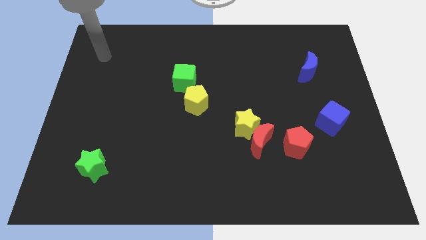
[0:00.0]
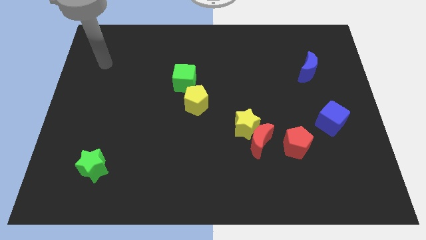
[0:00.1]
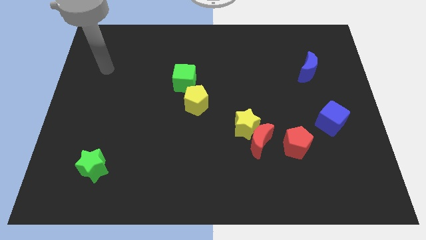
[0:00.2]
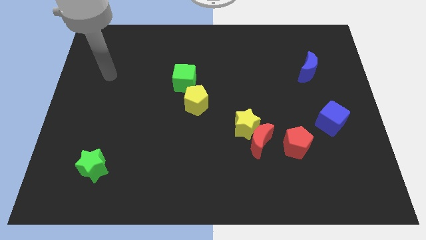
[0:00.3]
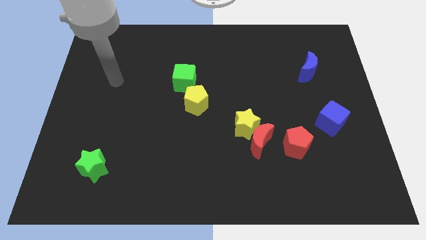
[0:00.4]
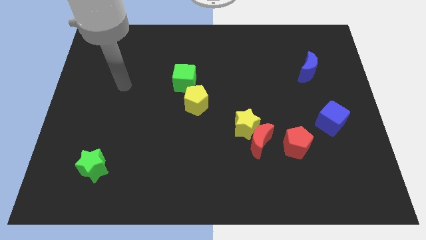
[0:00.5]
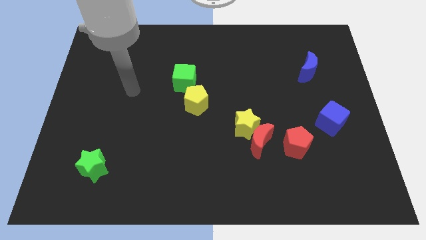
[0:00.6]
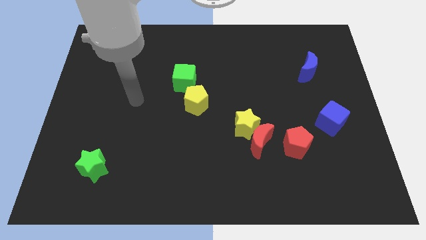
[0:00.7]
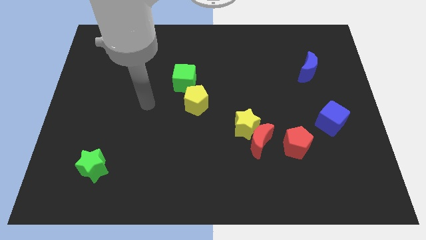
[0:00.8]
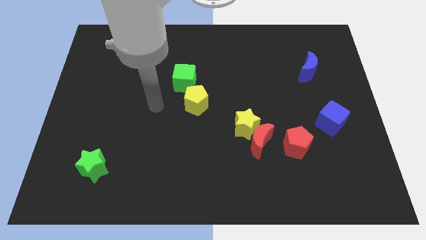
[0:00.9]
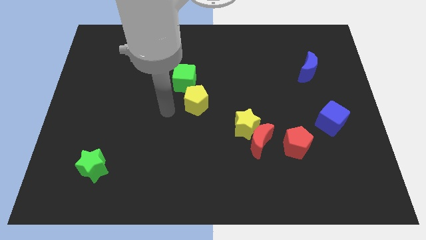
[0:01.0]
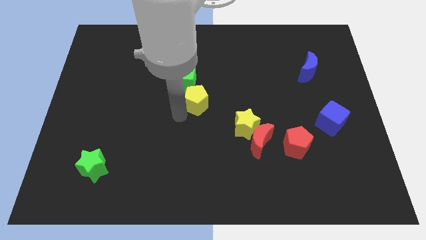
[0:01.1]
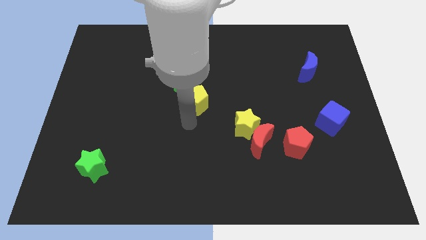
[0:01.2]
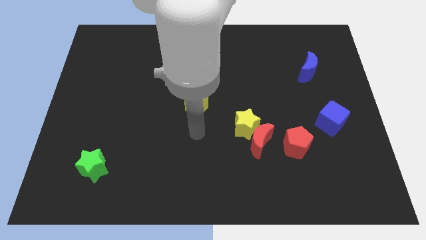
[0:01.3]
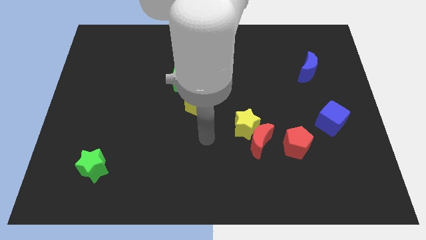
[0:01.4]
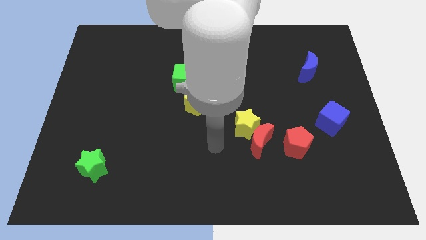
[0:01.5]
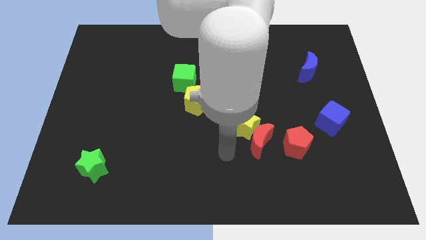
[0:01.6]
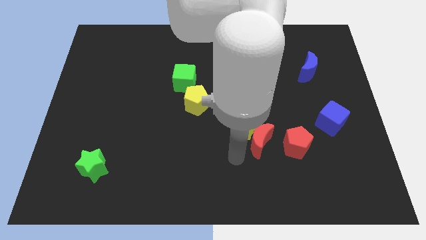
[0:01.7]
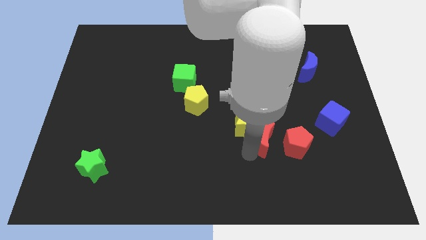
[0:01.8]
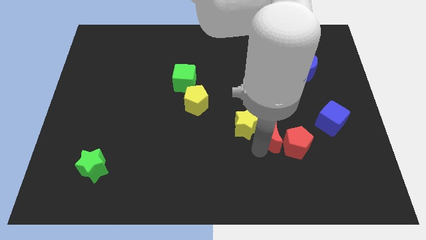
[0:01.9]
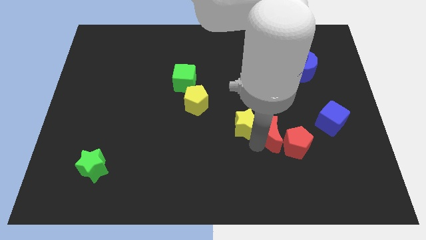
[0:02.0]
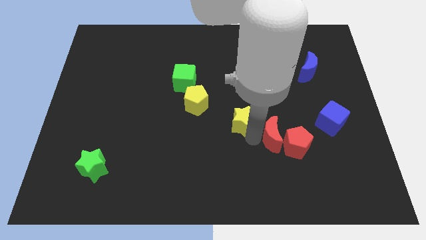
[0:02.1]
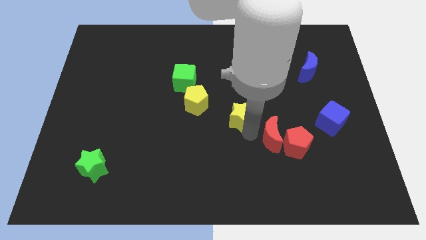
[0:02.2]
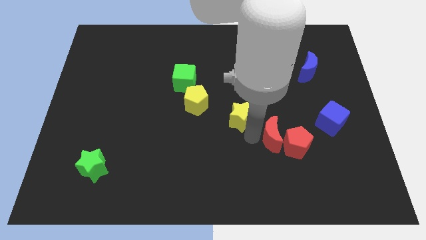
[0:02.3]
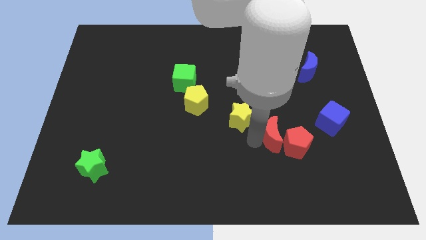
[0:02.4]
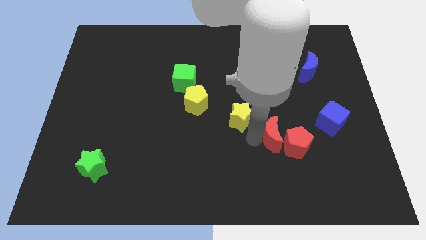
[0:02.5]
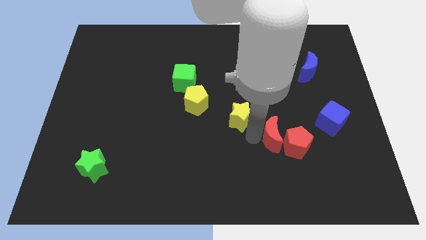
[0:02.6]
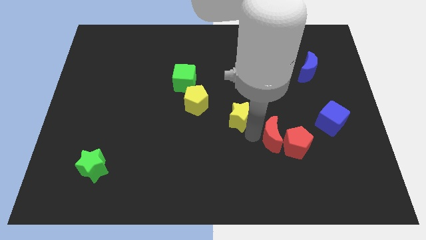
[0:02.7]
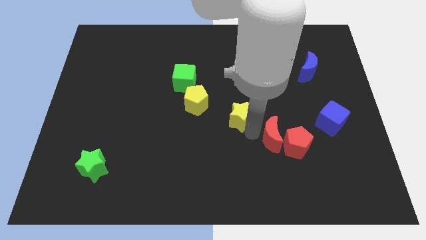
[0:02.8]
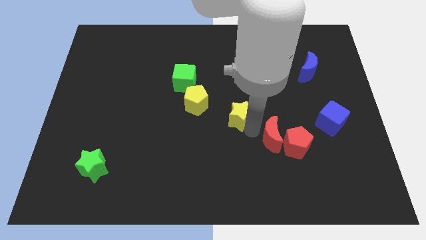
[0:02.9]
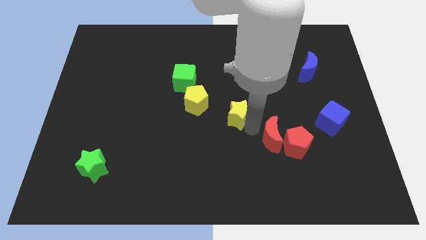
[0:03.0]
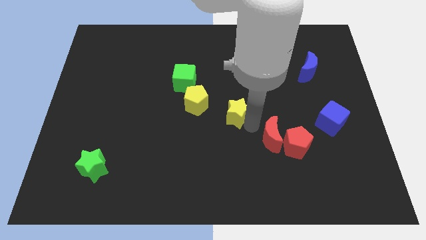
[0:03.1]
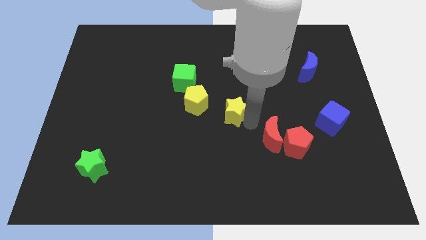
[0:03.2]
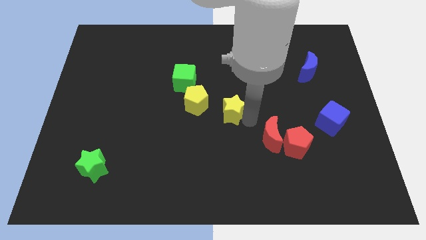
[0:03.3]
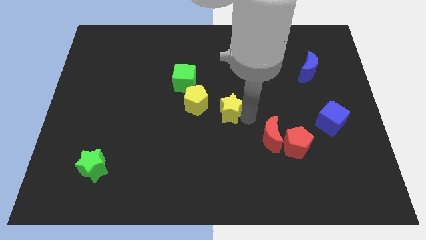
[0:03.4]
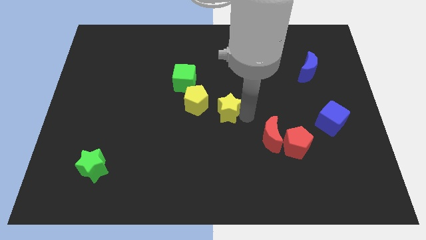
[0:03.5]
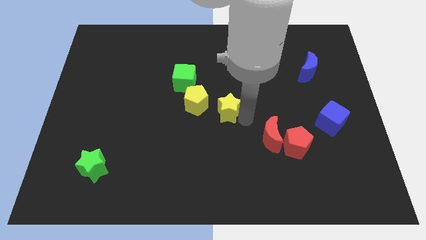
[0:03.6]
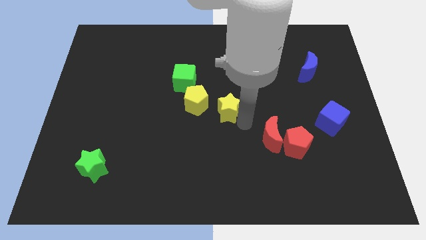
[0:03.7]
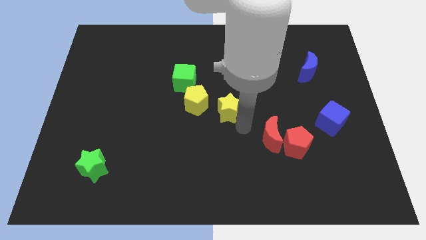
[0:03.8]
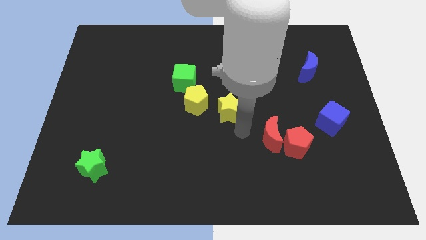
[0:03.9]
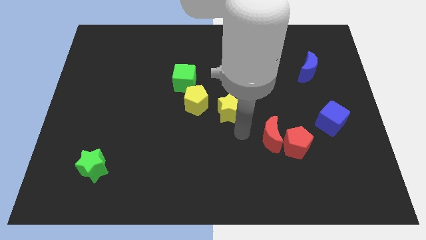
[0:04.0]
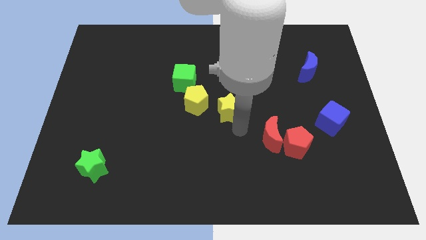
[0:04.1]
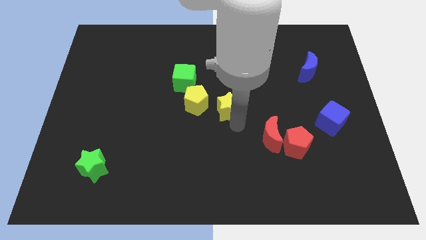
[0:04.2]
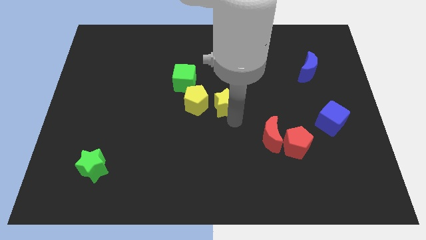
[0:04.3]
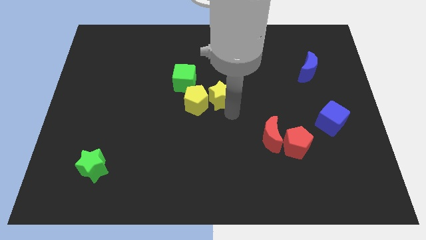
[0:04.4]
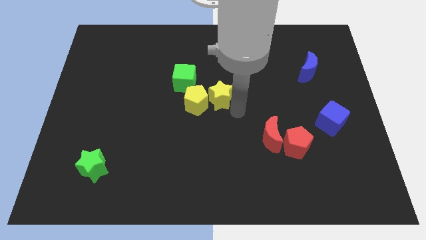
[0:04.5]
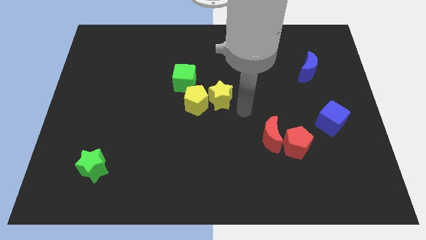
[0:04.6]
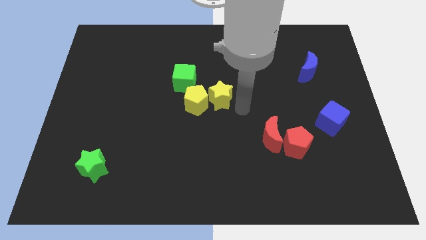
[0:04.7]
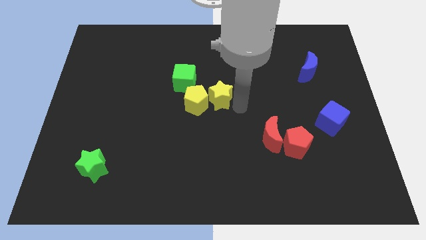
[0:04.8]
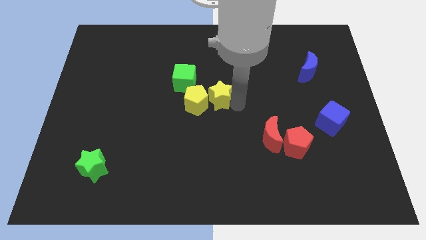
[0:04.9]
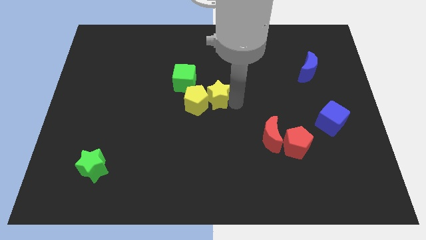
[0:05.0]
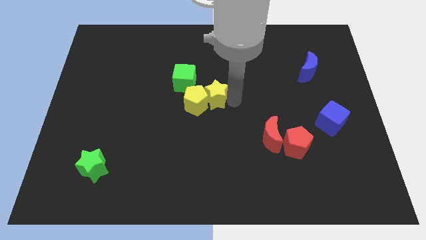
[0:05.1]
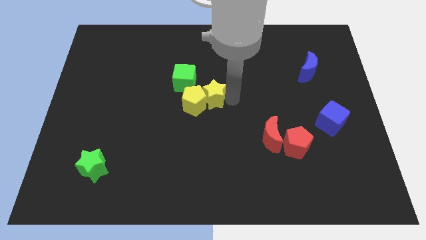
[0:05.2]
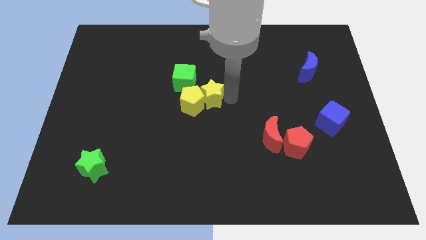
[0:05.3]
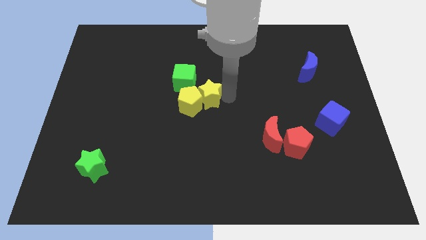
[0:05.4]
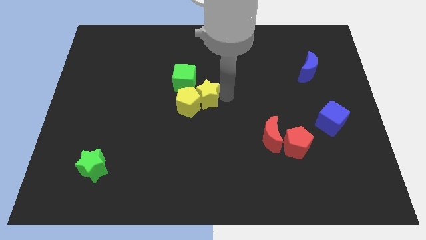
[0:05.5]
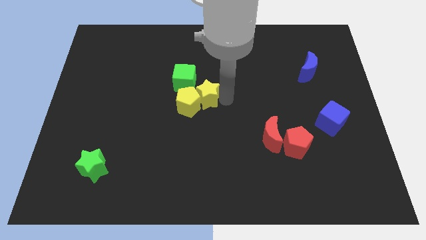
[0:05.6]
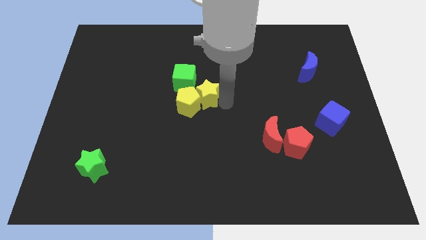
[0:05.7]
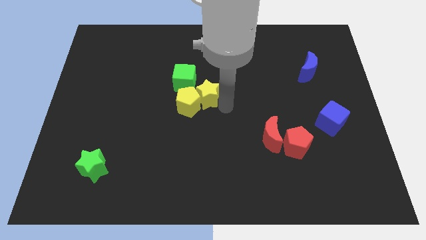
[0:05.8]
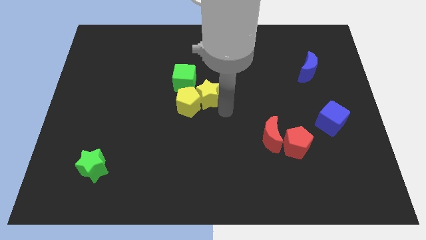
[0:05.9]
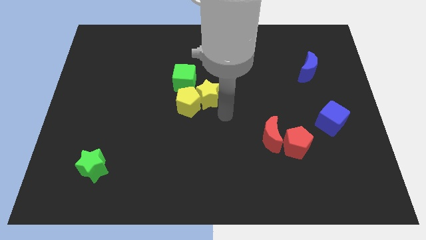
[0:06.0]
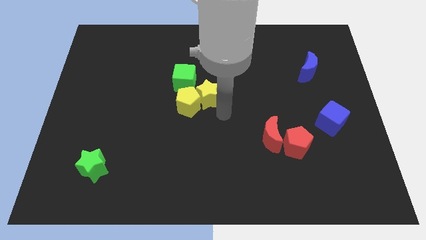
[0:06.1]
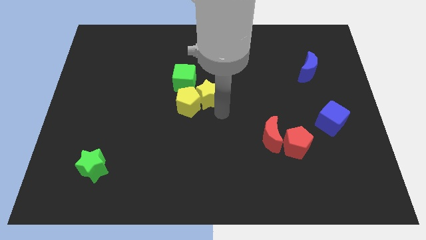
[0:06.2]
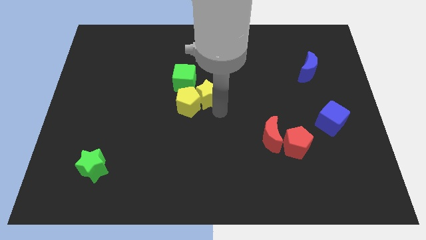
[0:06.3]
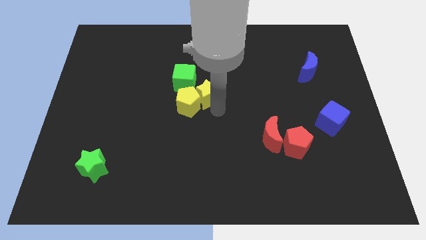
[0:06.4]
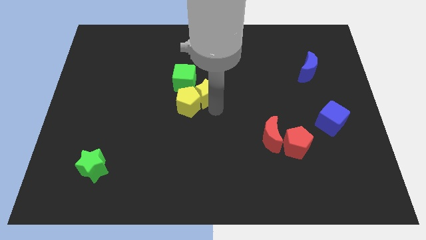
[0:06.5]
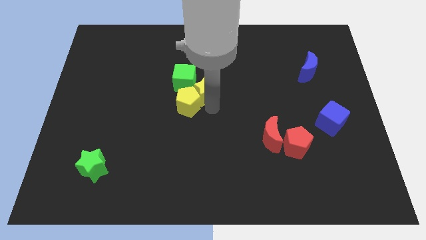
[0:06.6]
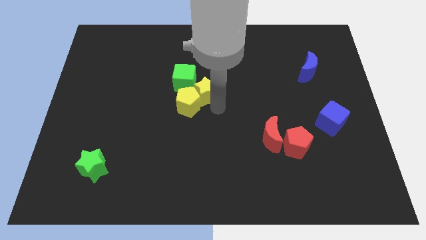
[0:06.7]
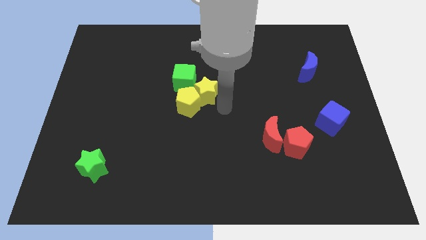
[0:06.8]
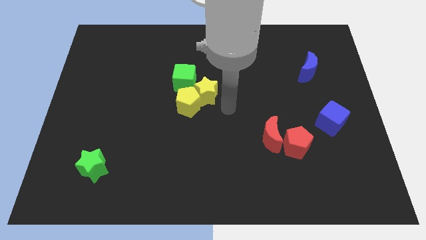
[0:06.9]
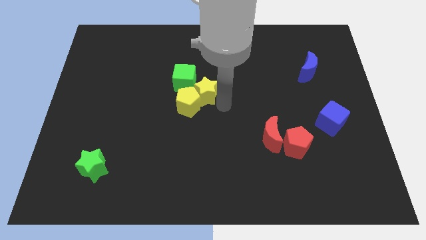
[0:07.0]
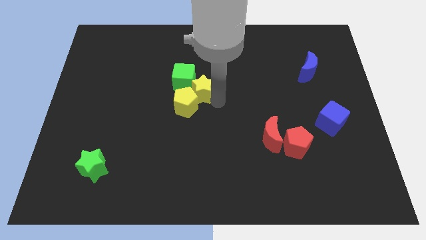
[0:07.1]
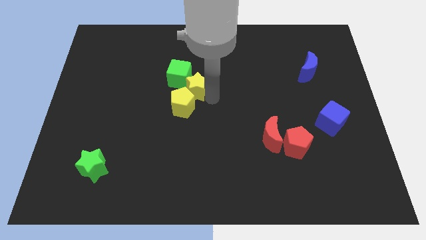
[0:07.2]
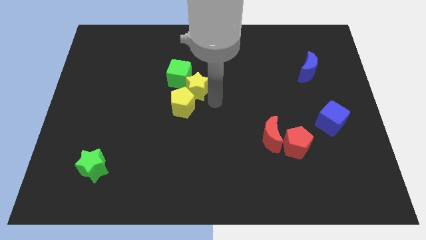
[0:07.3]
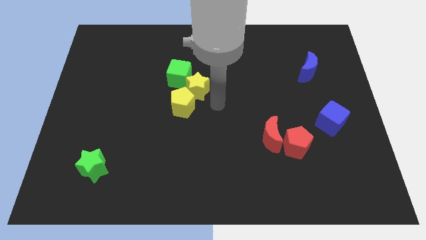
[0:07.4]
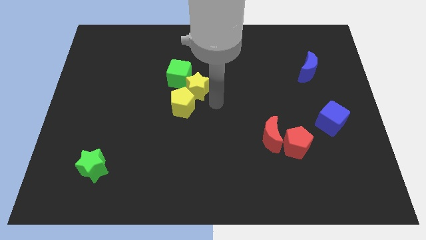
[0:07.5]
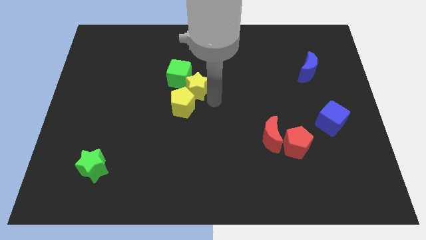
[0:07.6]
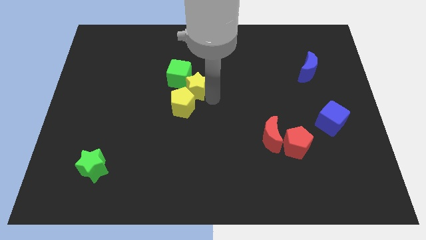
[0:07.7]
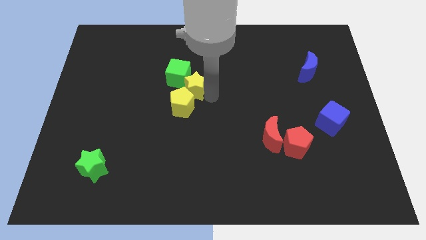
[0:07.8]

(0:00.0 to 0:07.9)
move the yellow star to the green cube
